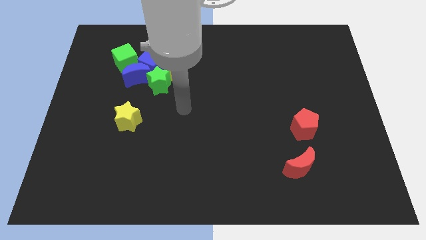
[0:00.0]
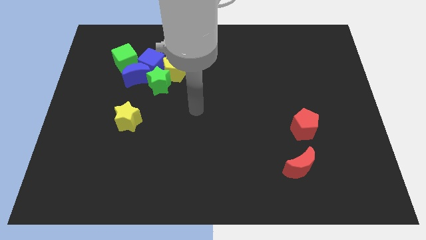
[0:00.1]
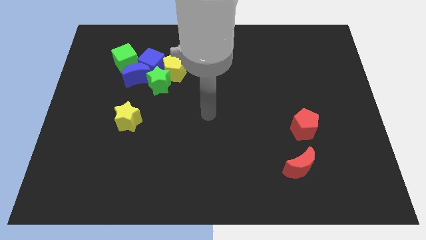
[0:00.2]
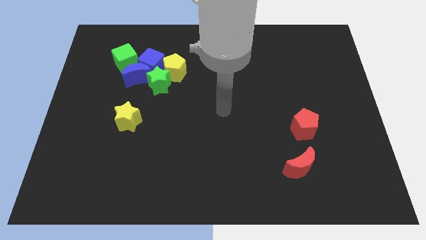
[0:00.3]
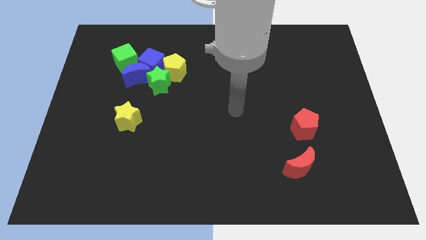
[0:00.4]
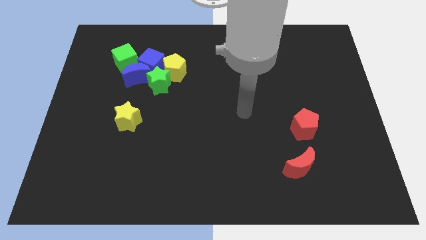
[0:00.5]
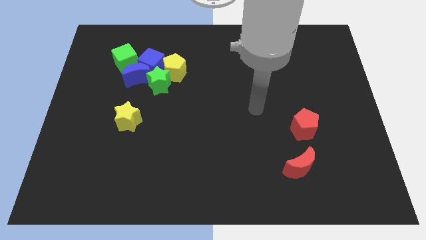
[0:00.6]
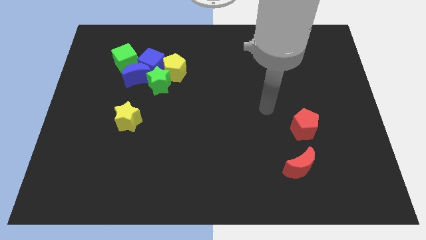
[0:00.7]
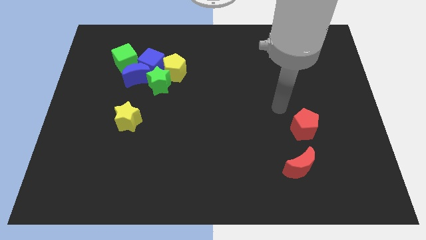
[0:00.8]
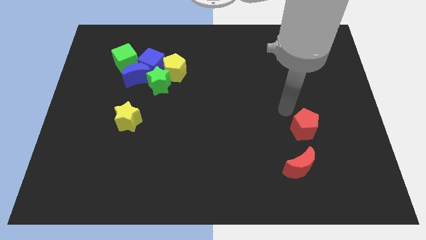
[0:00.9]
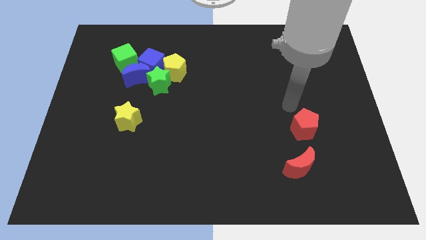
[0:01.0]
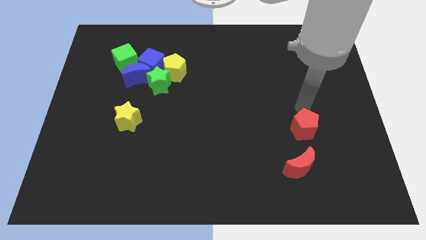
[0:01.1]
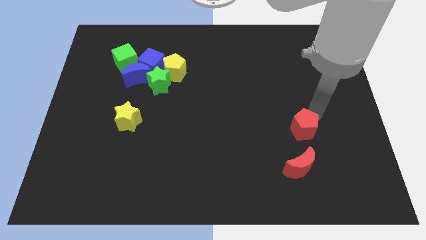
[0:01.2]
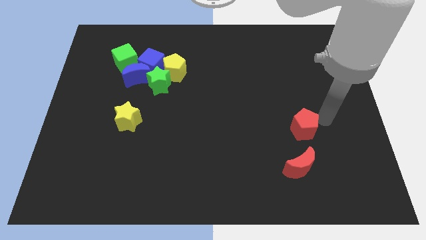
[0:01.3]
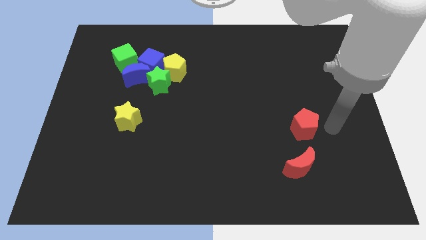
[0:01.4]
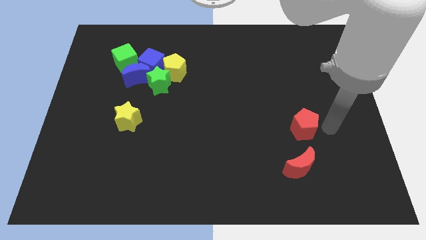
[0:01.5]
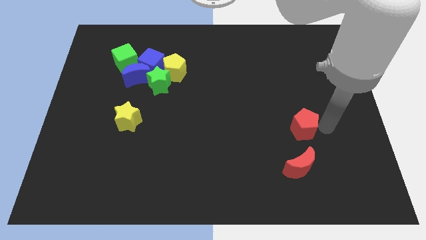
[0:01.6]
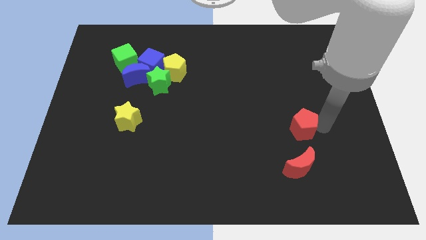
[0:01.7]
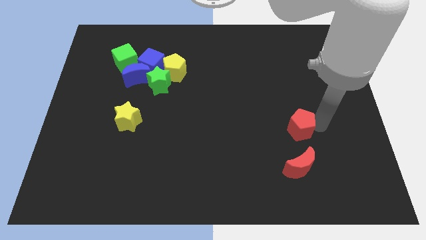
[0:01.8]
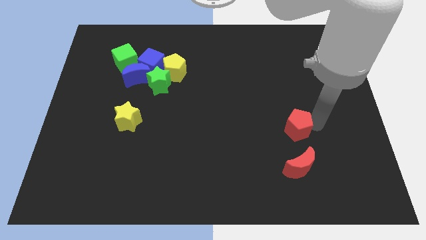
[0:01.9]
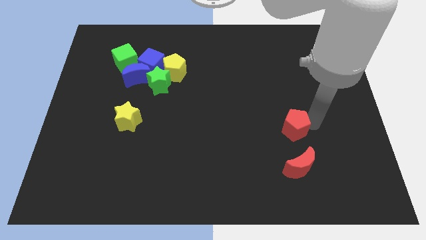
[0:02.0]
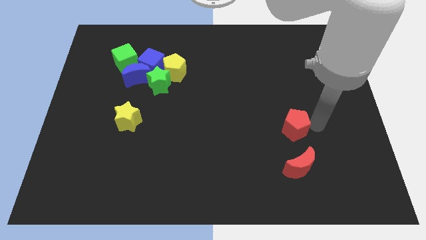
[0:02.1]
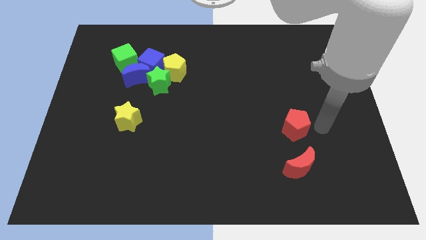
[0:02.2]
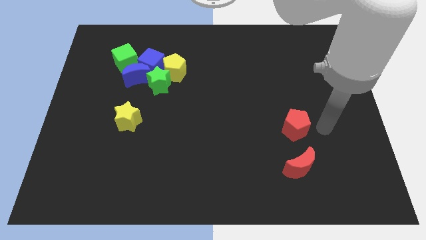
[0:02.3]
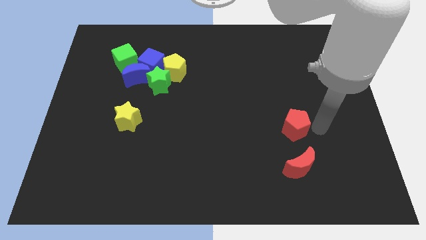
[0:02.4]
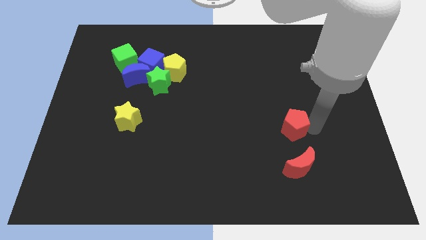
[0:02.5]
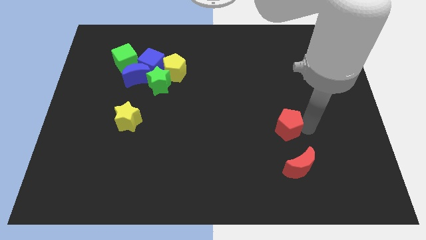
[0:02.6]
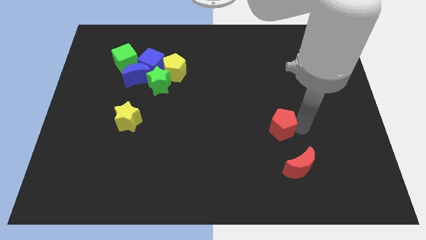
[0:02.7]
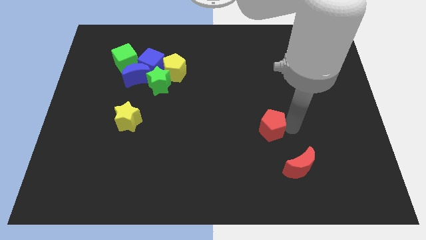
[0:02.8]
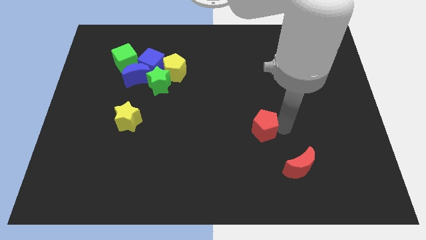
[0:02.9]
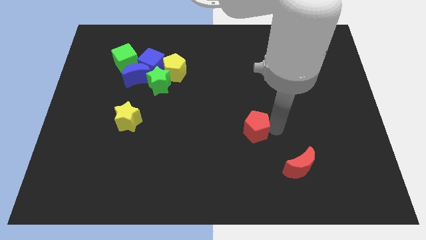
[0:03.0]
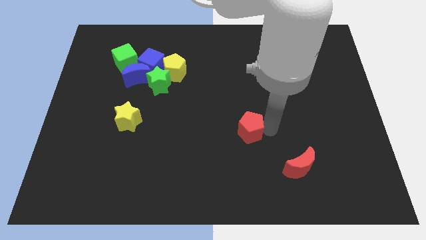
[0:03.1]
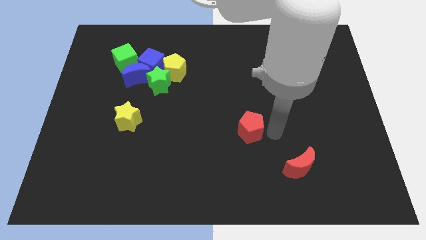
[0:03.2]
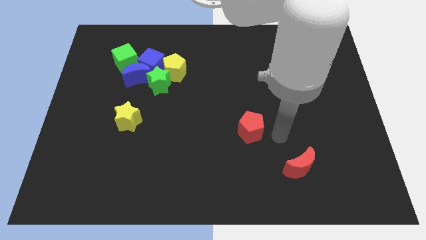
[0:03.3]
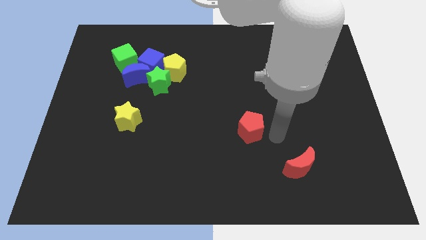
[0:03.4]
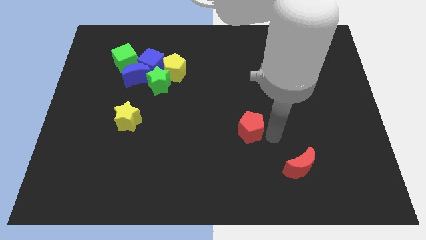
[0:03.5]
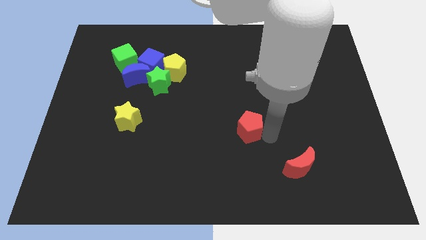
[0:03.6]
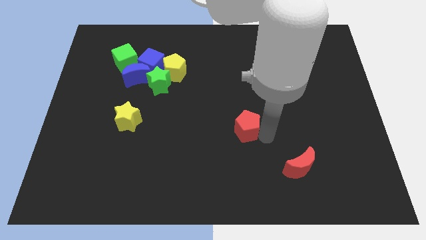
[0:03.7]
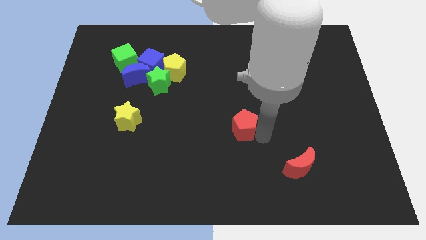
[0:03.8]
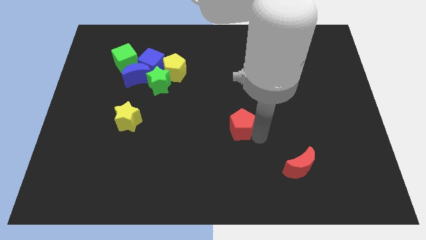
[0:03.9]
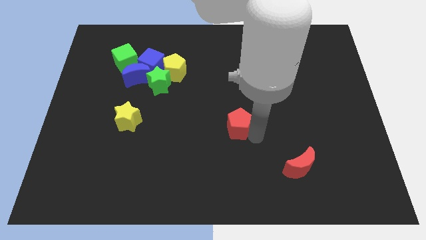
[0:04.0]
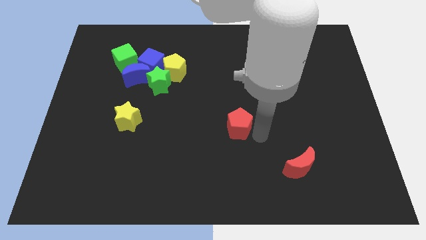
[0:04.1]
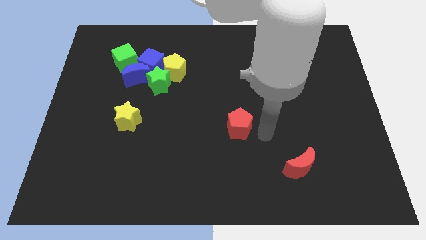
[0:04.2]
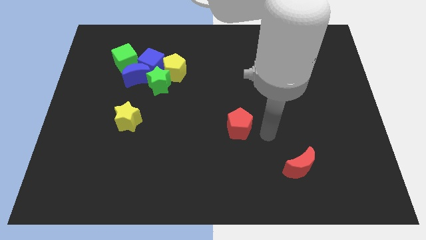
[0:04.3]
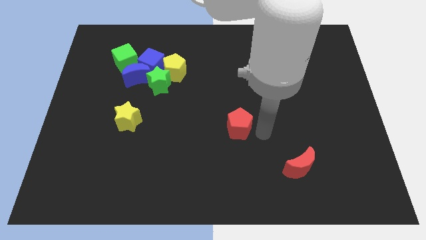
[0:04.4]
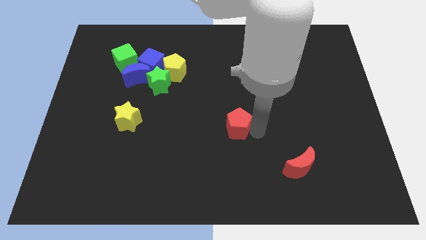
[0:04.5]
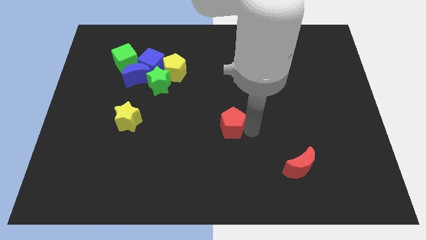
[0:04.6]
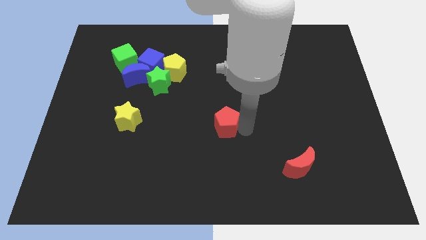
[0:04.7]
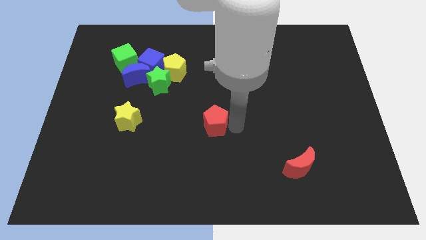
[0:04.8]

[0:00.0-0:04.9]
slide the red pentagon left

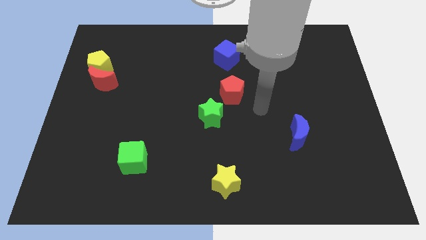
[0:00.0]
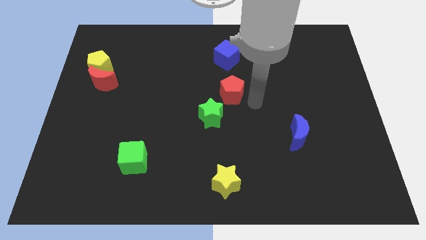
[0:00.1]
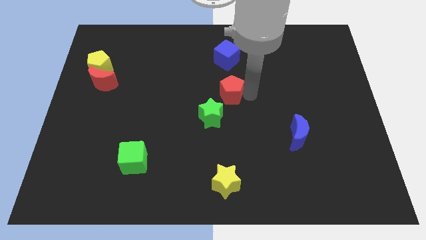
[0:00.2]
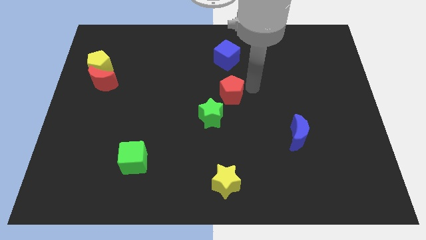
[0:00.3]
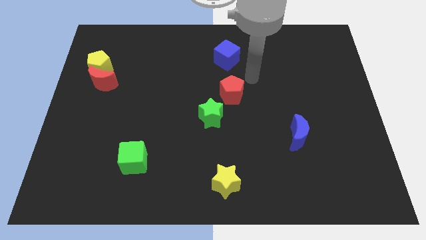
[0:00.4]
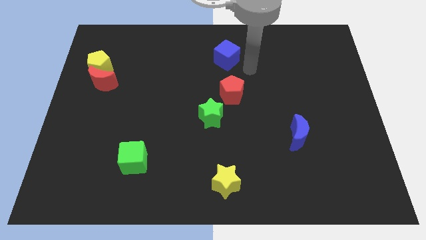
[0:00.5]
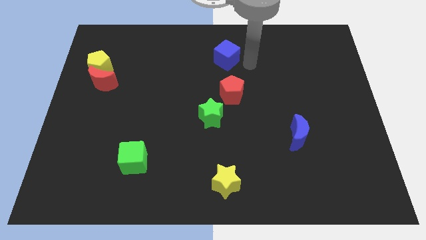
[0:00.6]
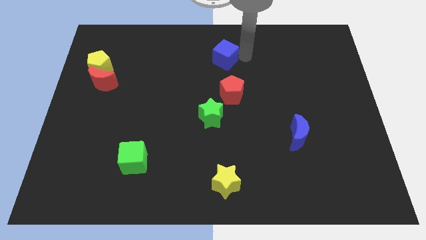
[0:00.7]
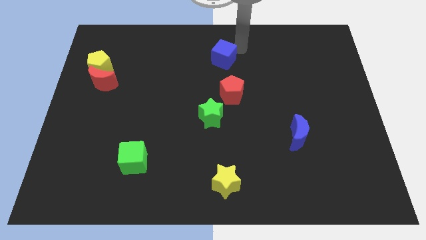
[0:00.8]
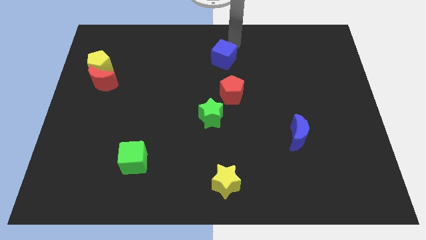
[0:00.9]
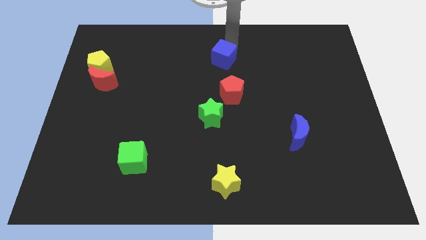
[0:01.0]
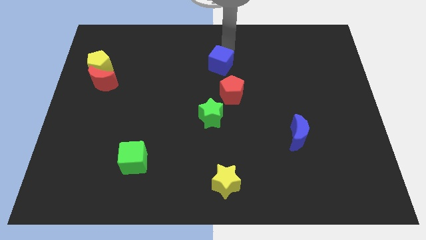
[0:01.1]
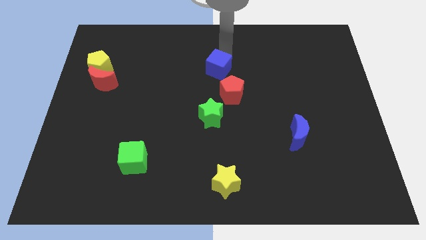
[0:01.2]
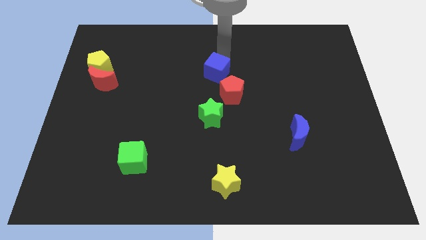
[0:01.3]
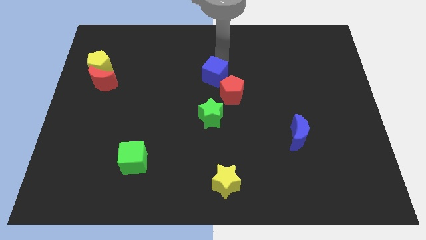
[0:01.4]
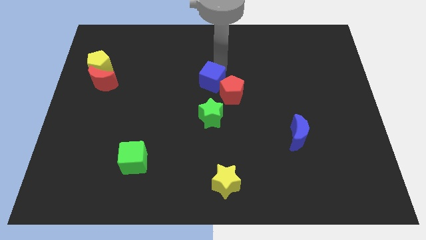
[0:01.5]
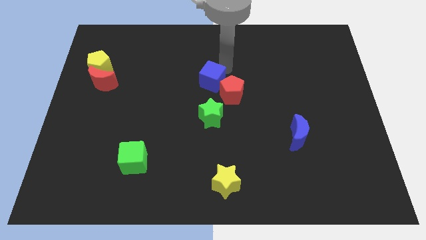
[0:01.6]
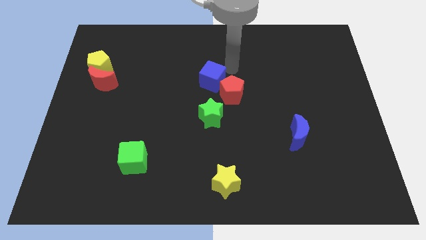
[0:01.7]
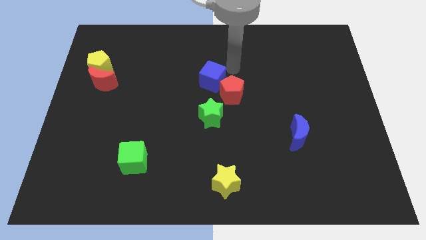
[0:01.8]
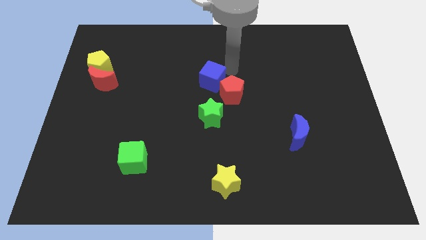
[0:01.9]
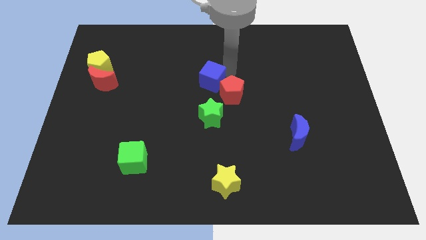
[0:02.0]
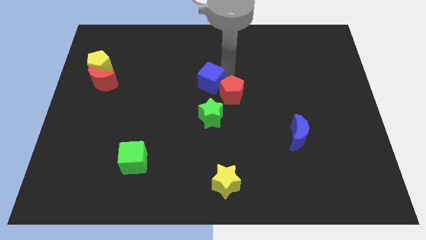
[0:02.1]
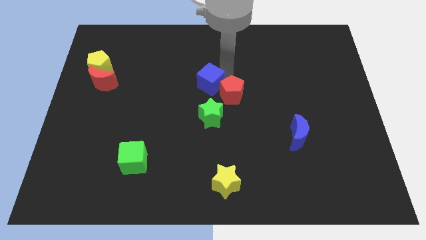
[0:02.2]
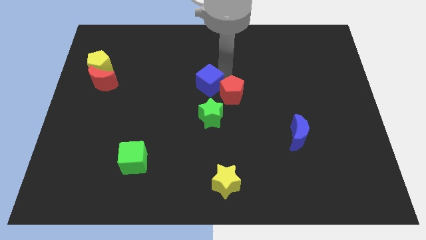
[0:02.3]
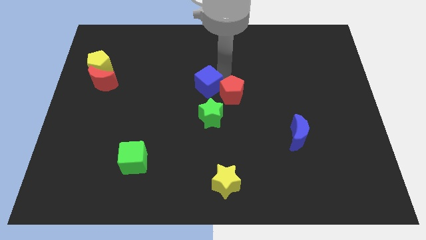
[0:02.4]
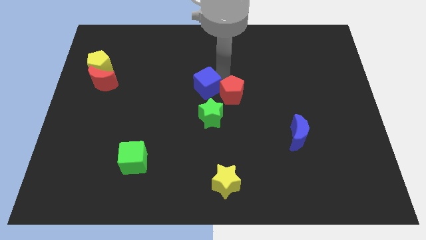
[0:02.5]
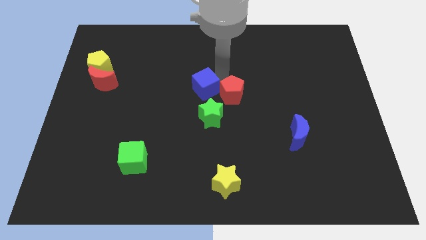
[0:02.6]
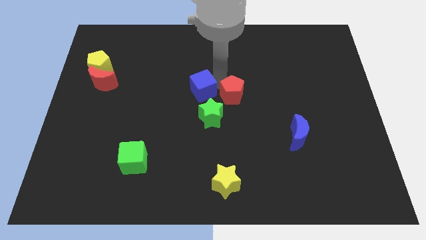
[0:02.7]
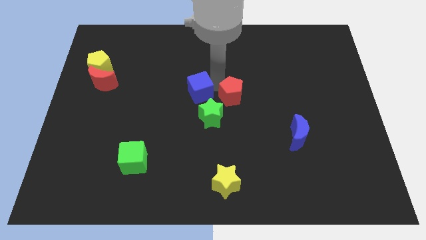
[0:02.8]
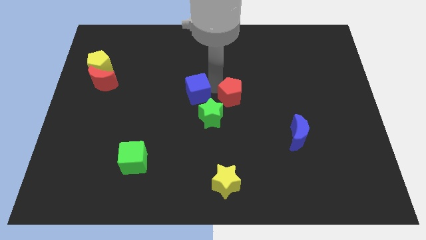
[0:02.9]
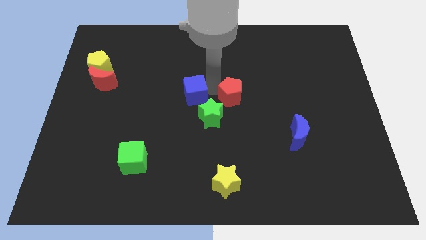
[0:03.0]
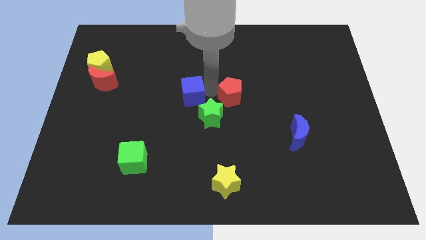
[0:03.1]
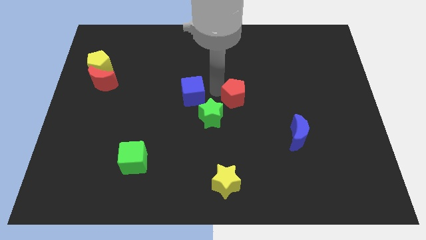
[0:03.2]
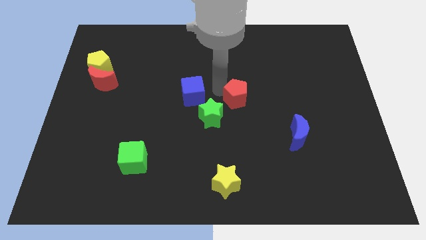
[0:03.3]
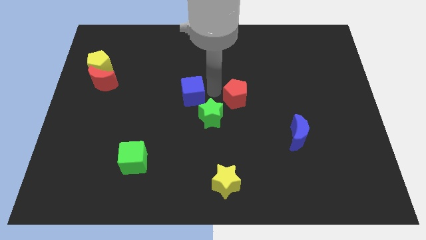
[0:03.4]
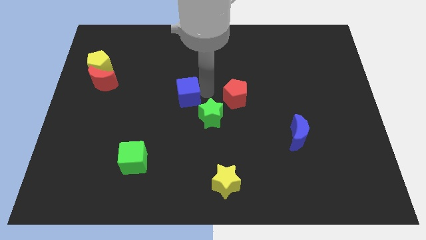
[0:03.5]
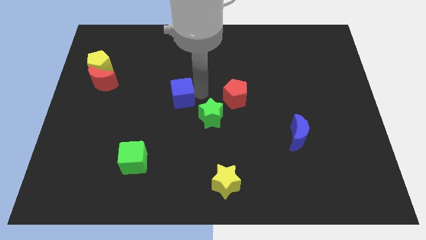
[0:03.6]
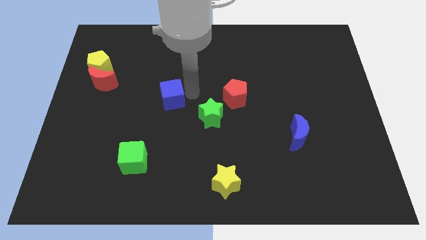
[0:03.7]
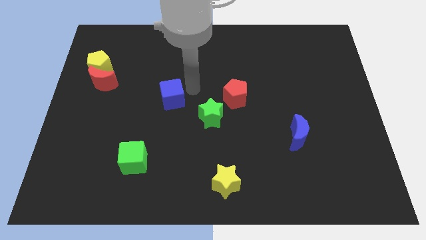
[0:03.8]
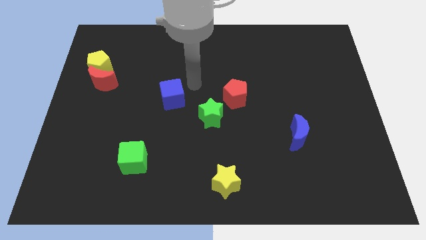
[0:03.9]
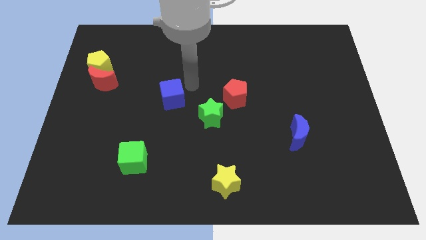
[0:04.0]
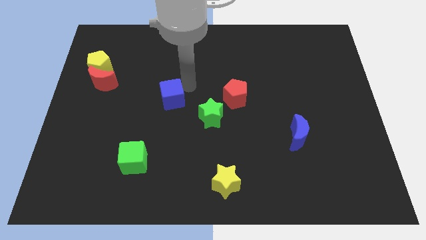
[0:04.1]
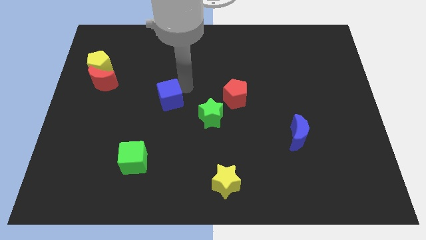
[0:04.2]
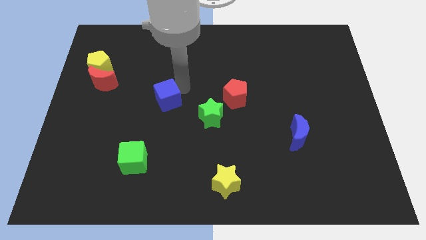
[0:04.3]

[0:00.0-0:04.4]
push the blue cube diagonally down and to the left
